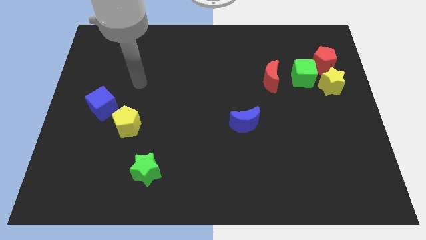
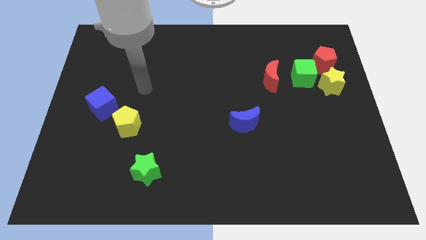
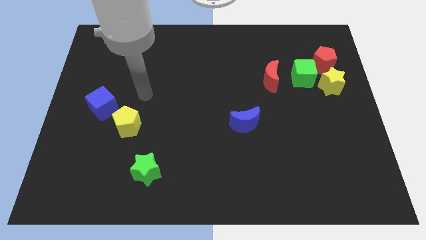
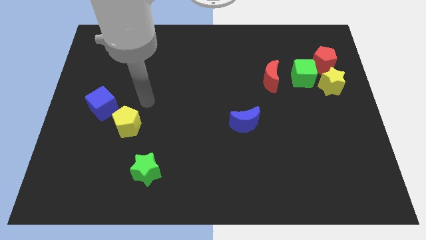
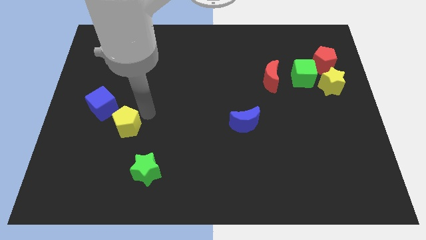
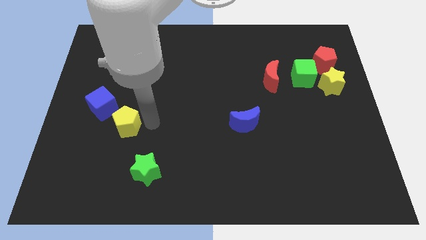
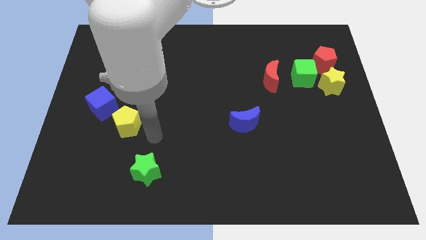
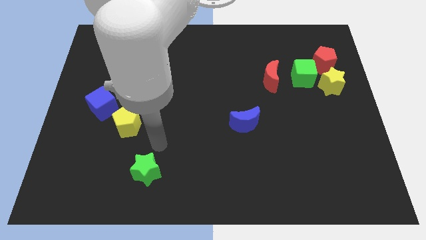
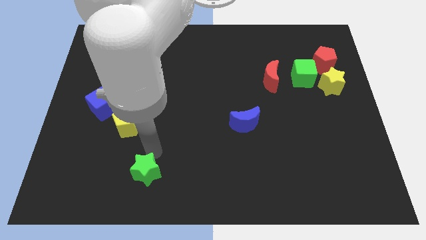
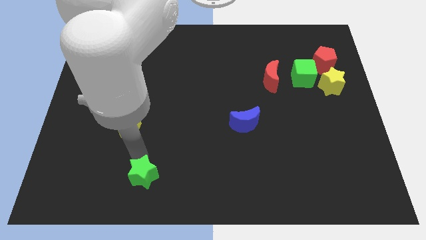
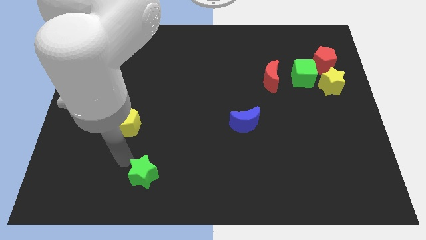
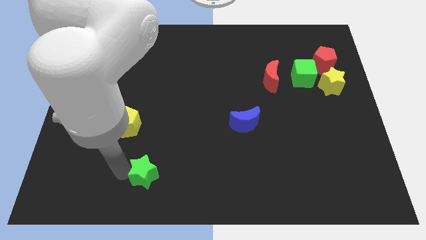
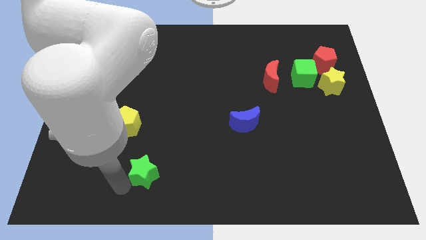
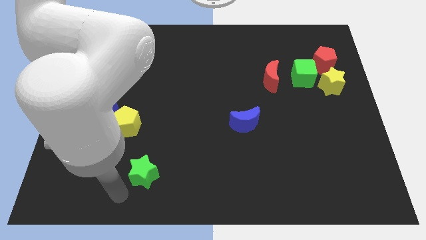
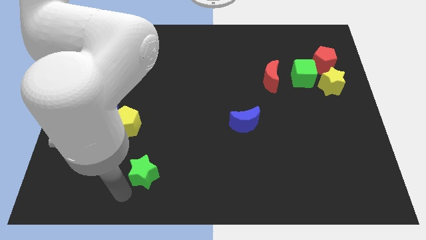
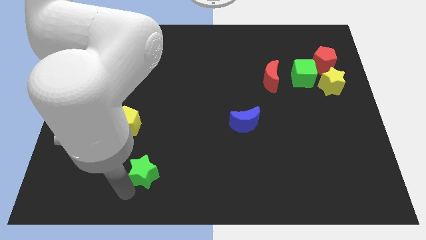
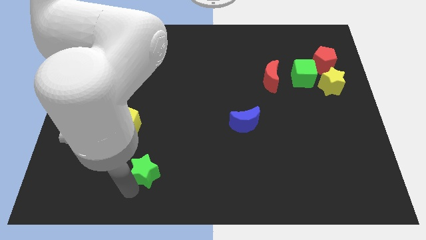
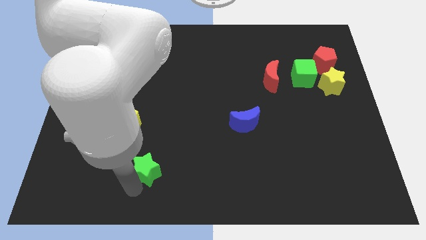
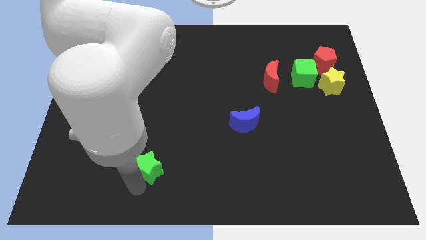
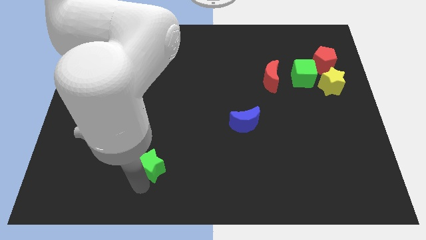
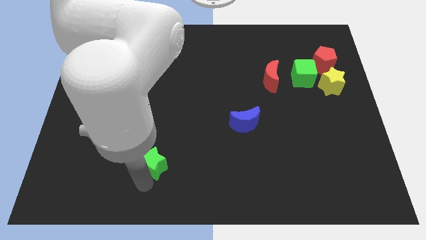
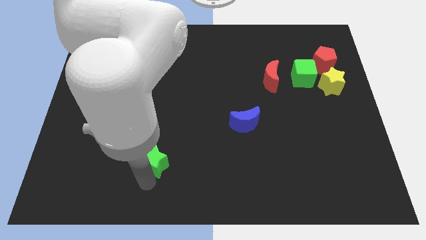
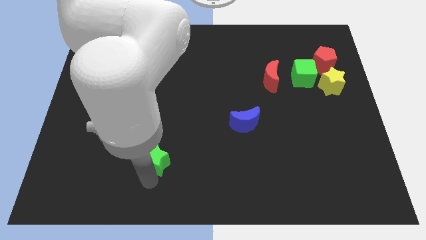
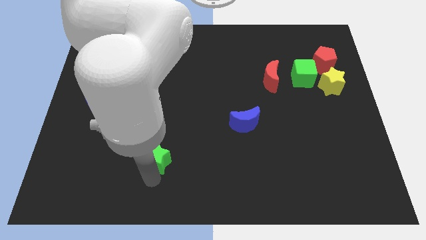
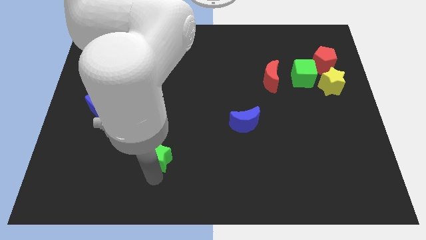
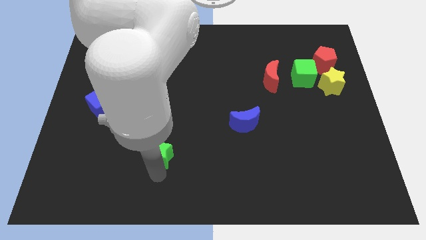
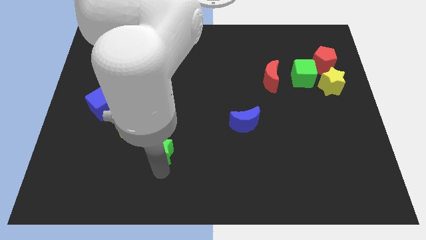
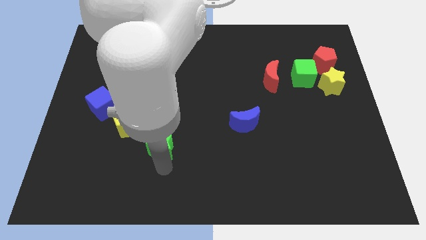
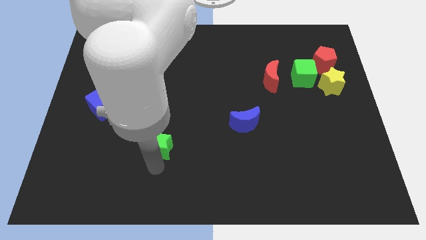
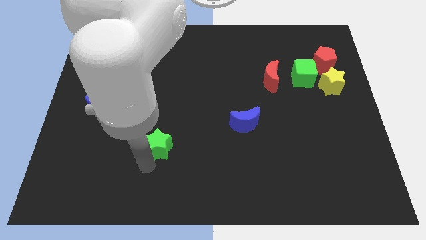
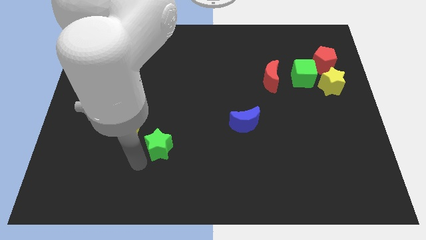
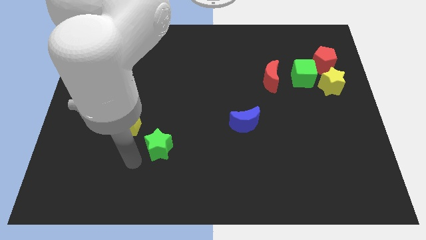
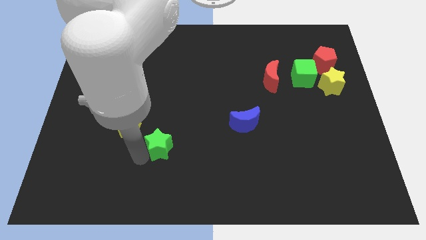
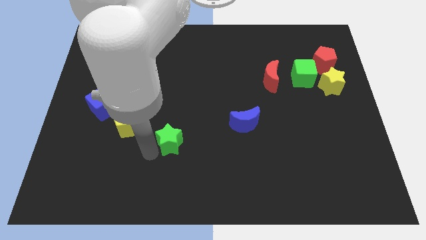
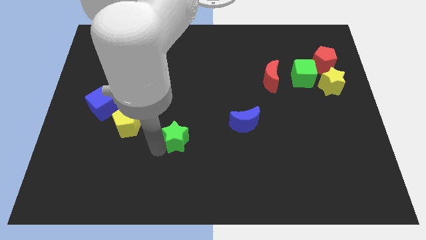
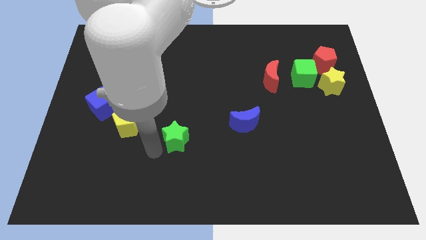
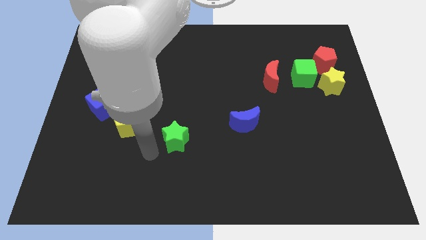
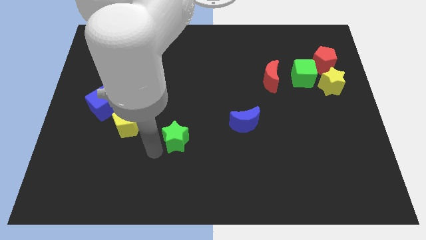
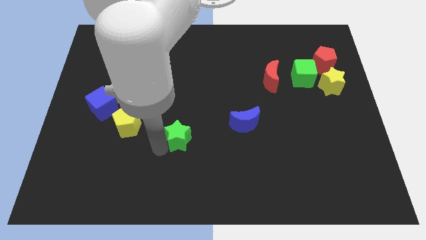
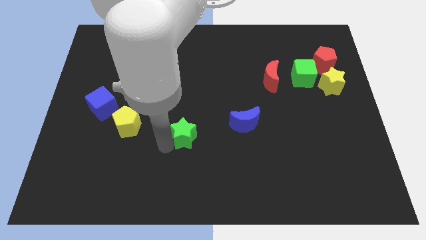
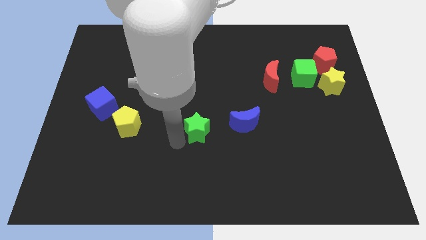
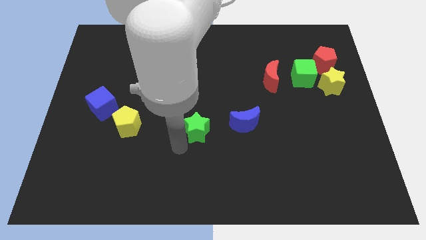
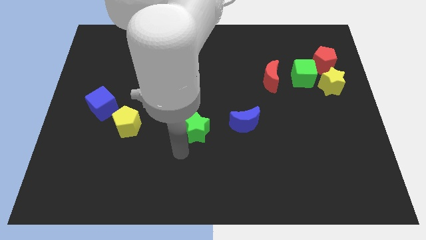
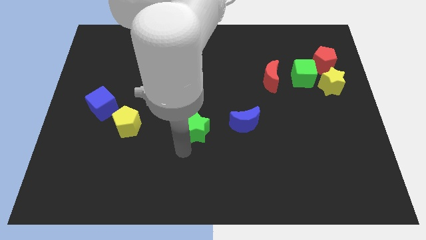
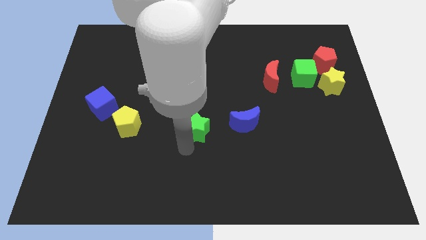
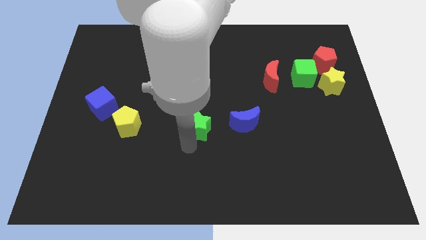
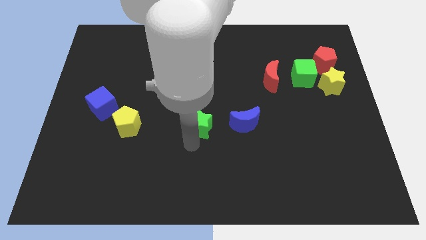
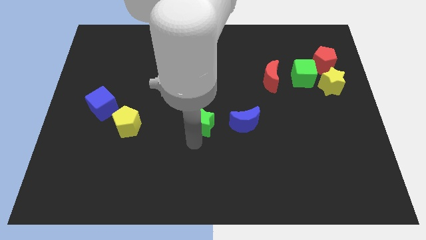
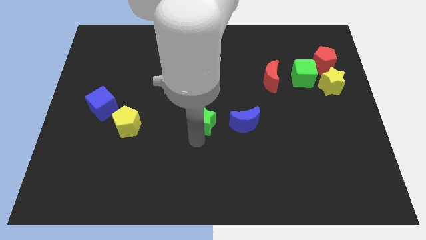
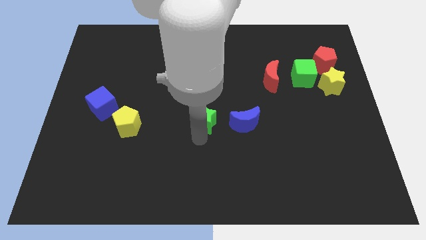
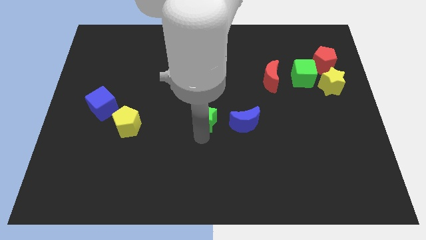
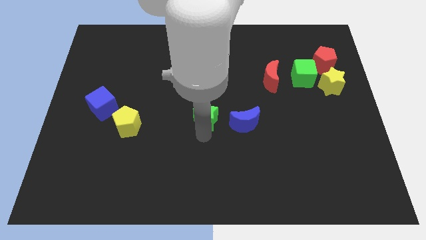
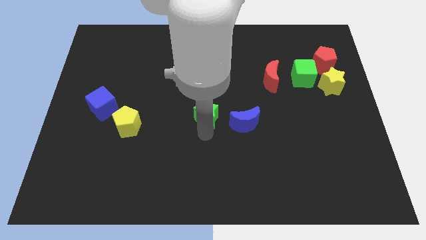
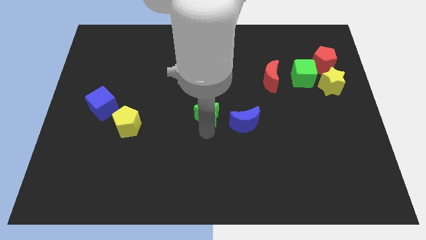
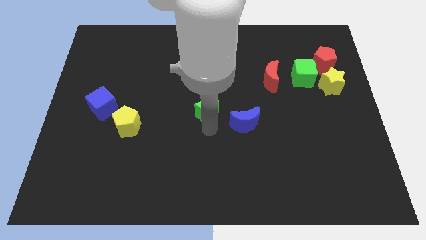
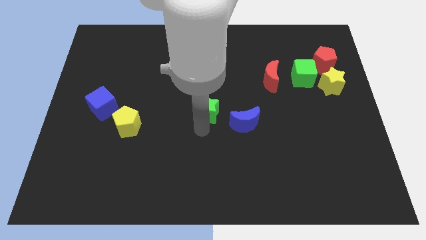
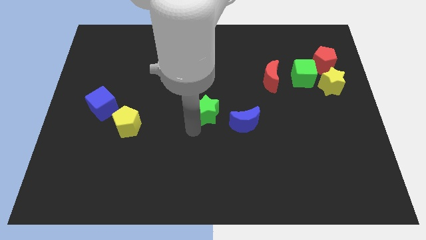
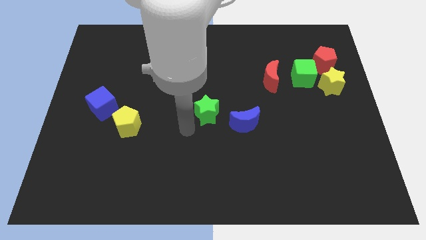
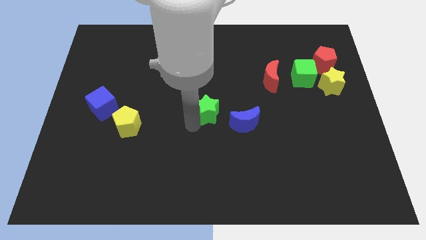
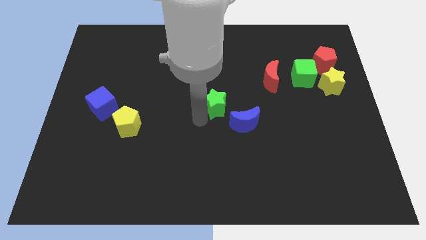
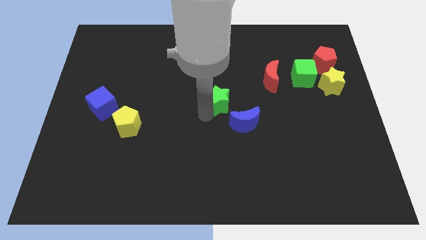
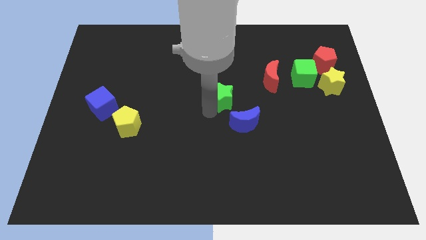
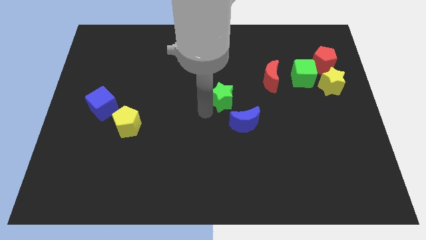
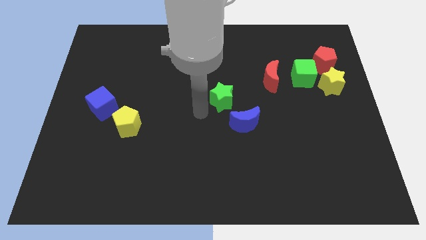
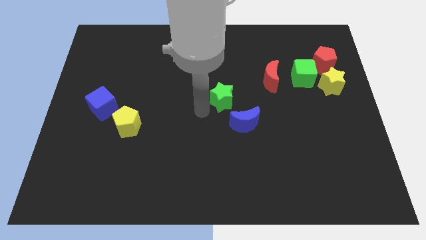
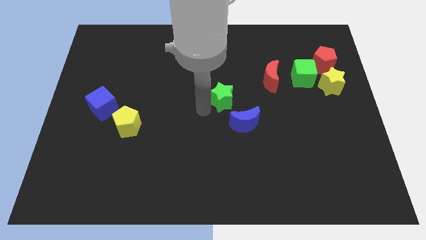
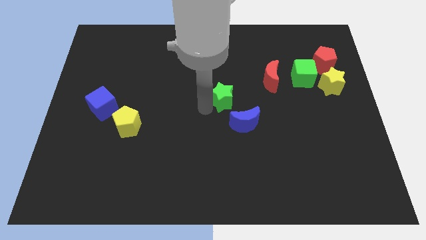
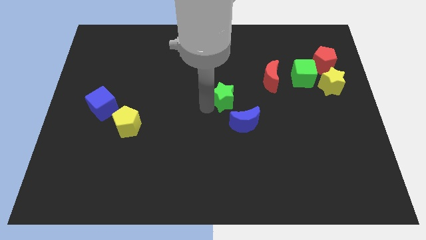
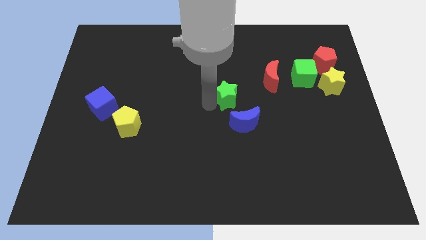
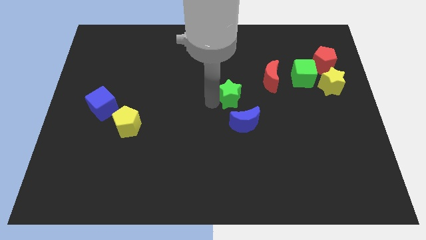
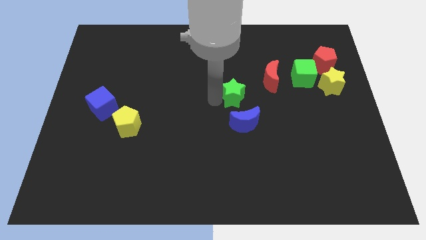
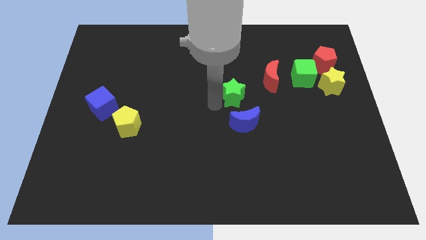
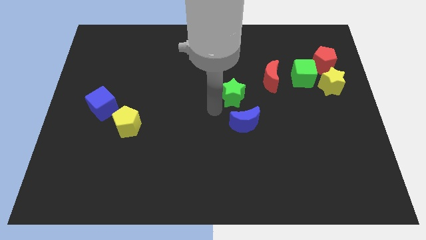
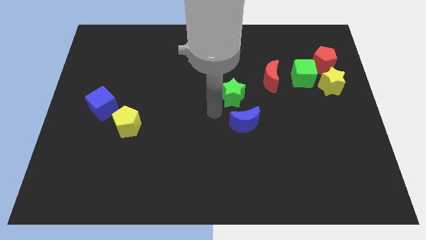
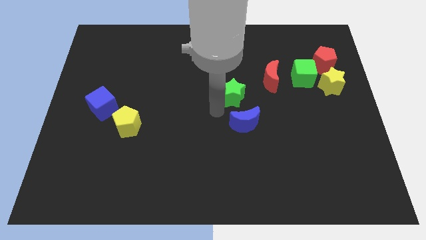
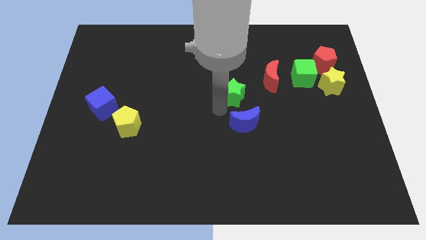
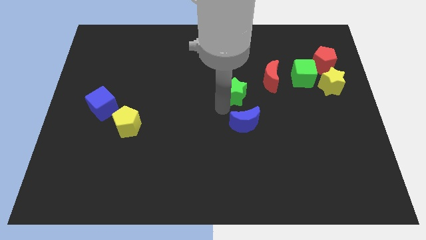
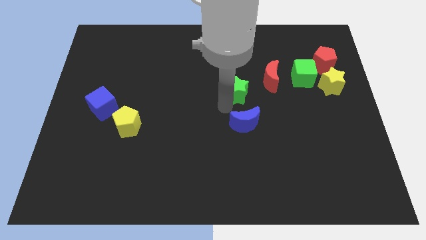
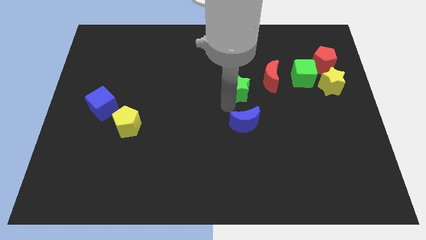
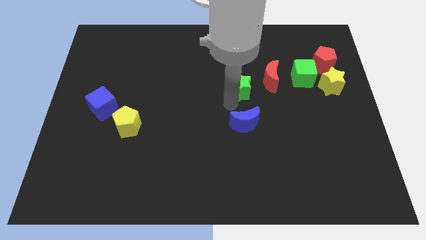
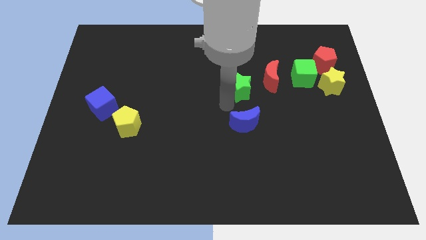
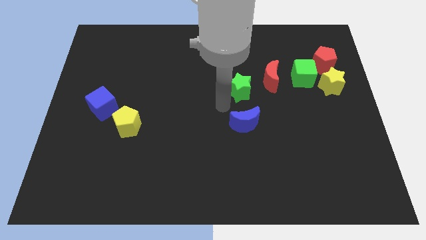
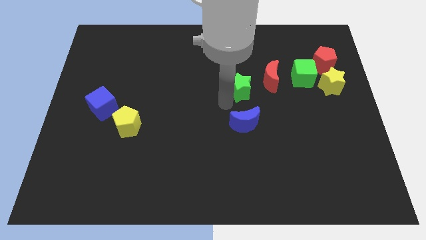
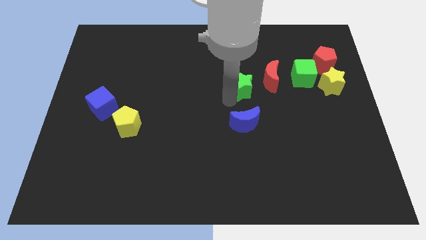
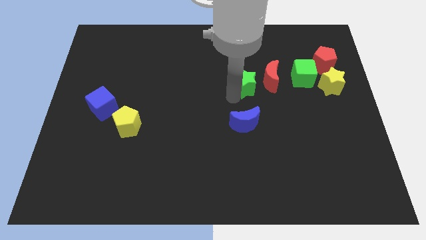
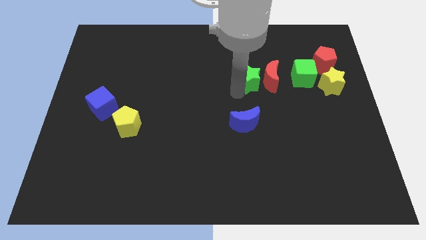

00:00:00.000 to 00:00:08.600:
push the green star to the red moon
